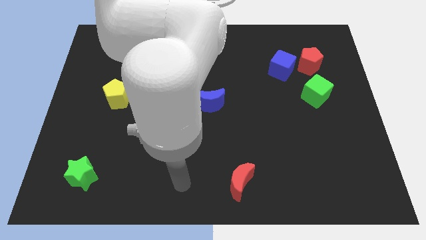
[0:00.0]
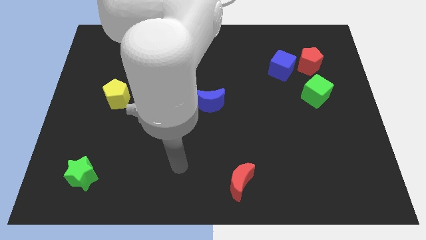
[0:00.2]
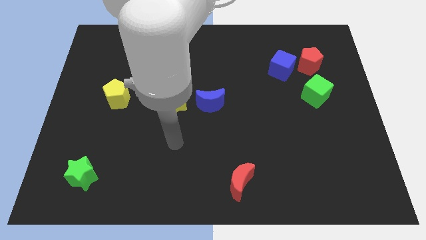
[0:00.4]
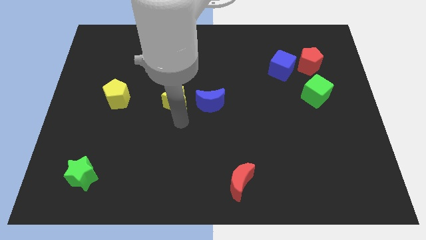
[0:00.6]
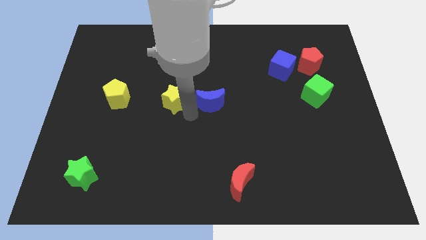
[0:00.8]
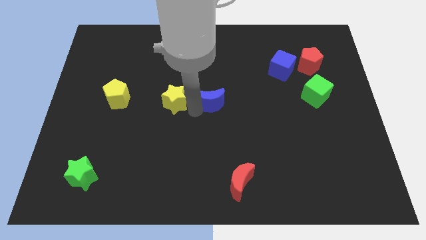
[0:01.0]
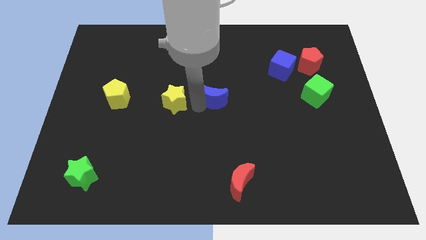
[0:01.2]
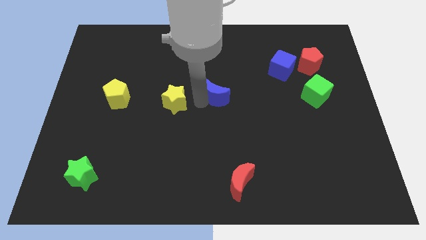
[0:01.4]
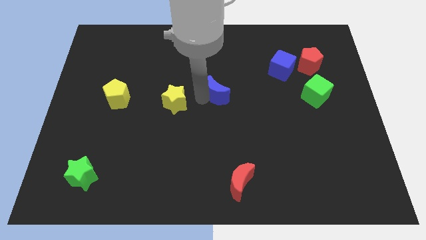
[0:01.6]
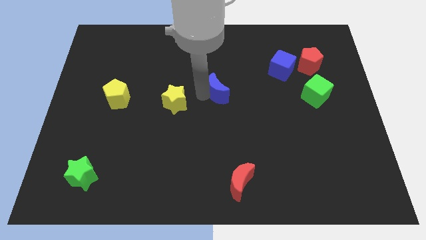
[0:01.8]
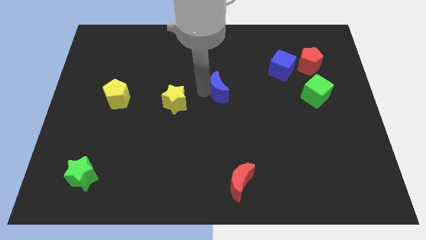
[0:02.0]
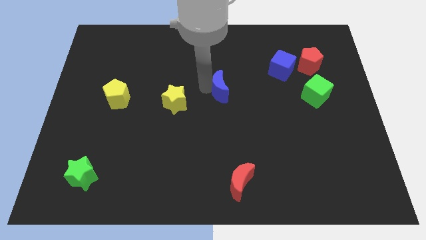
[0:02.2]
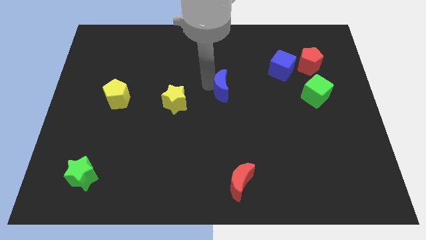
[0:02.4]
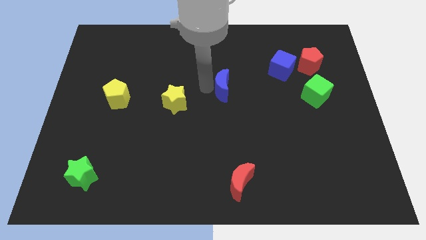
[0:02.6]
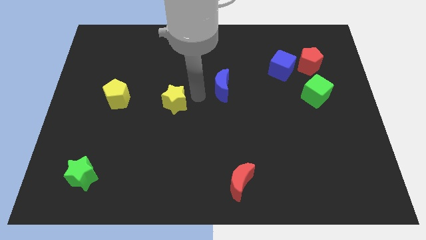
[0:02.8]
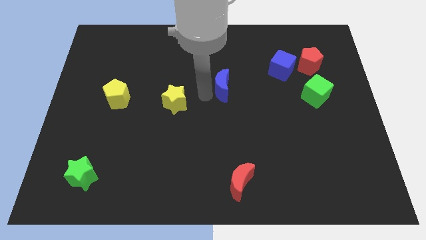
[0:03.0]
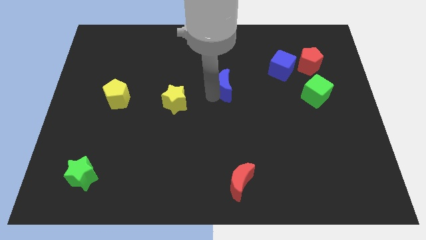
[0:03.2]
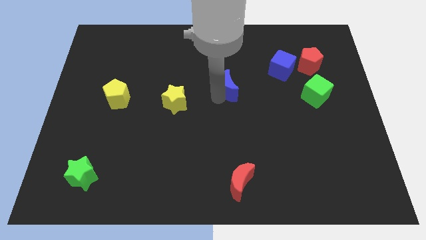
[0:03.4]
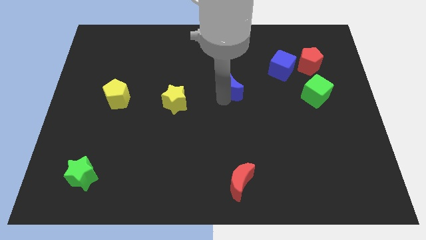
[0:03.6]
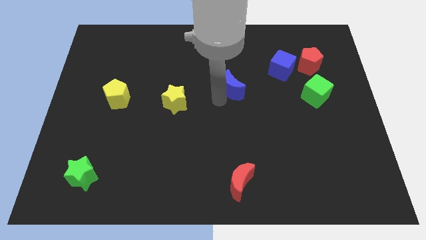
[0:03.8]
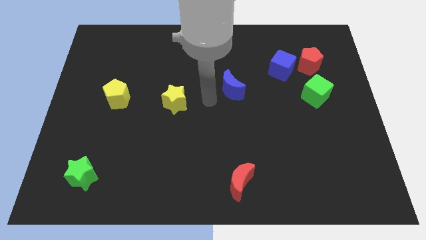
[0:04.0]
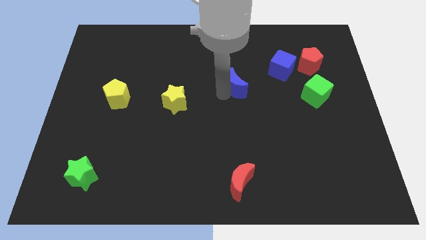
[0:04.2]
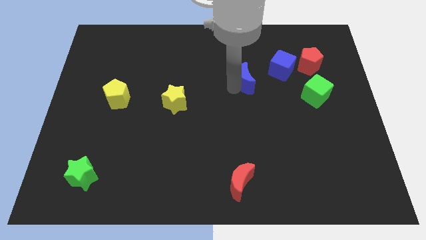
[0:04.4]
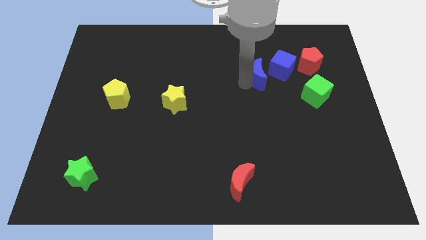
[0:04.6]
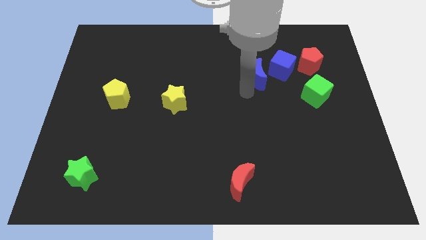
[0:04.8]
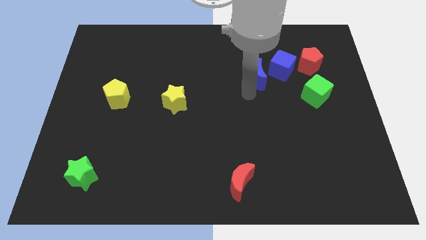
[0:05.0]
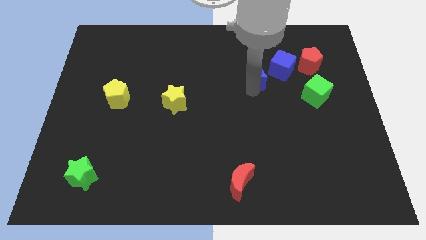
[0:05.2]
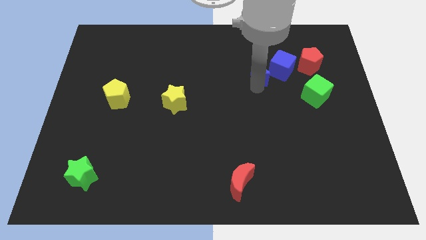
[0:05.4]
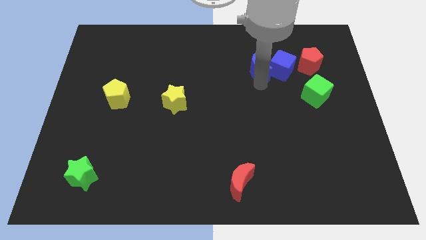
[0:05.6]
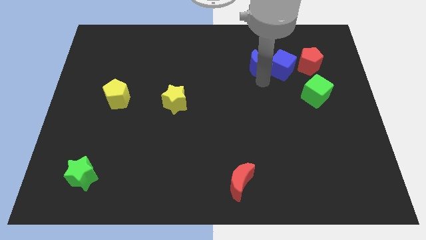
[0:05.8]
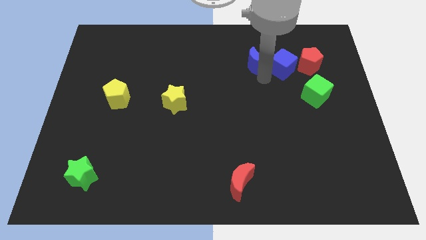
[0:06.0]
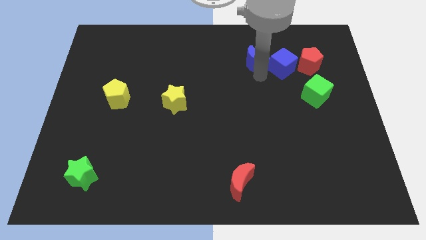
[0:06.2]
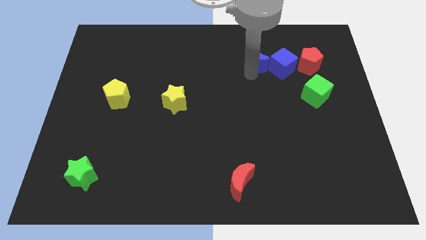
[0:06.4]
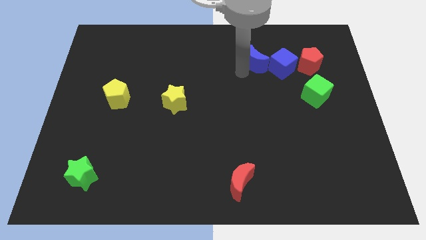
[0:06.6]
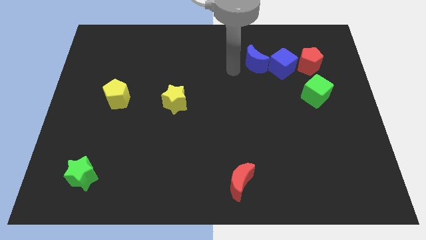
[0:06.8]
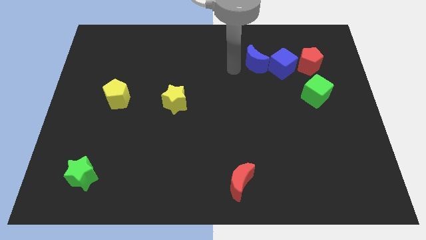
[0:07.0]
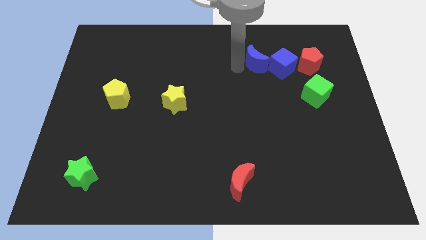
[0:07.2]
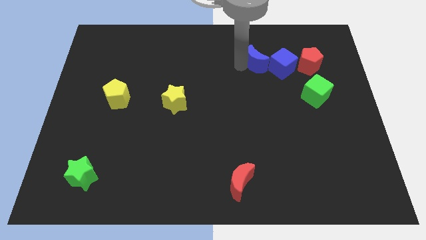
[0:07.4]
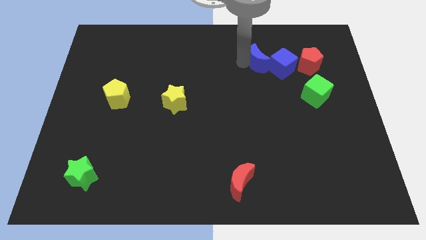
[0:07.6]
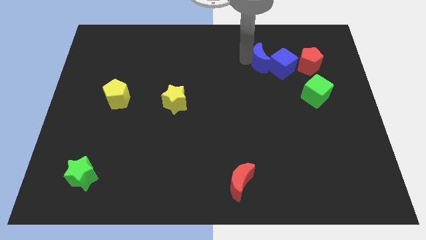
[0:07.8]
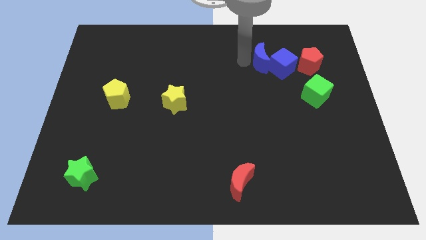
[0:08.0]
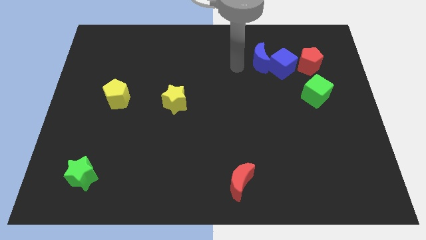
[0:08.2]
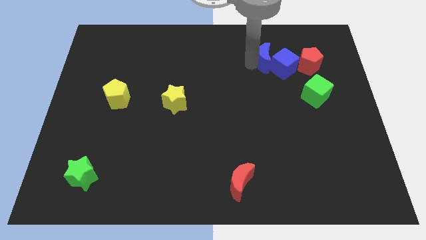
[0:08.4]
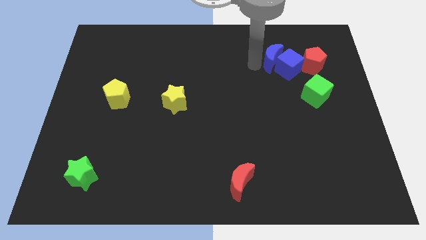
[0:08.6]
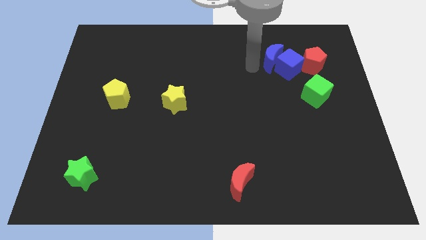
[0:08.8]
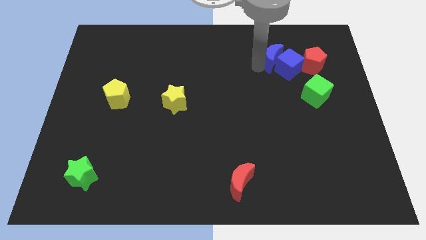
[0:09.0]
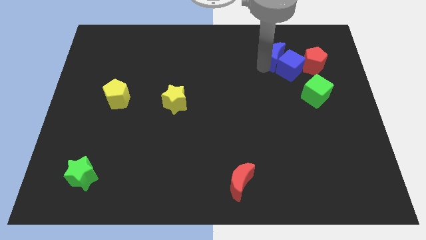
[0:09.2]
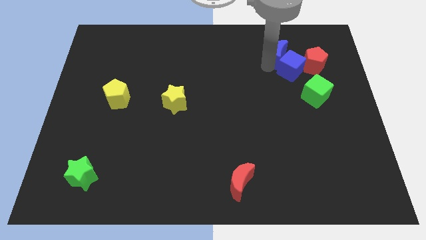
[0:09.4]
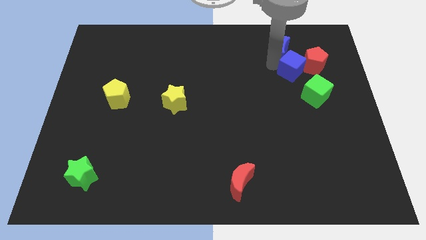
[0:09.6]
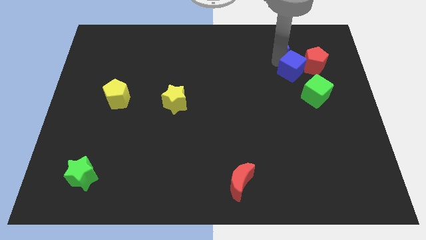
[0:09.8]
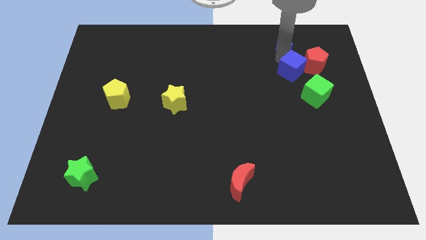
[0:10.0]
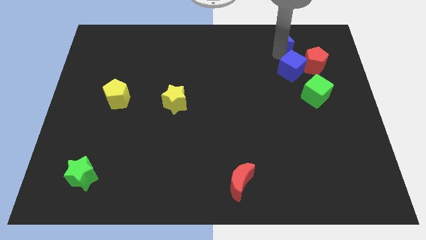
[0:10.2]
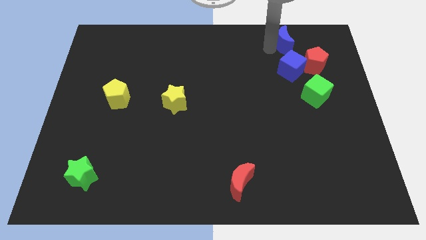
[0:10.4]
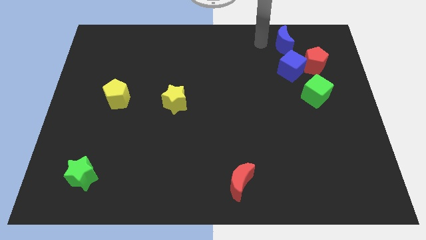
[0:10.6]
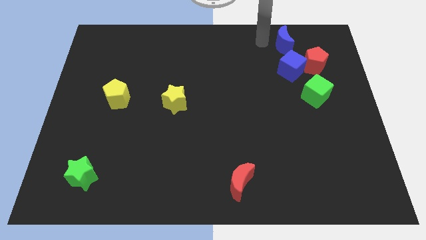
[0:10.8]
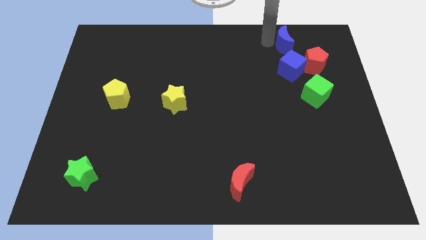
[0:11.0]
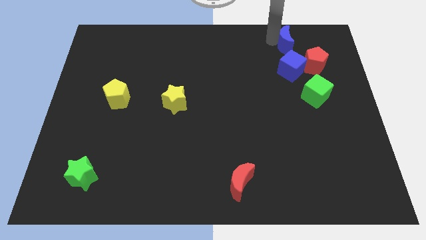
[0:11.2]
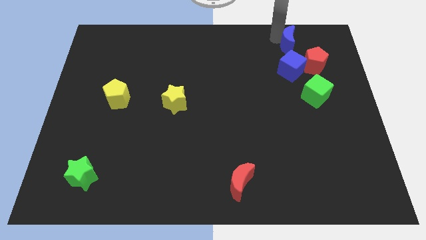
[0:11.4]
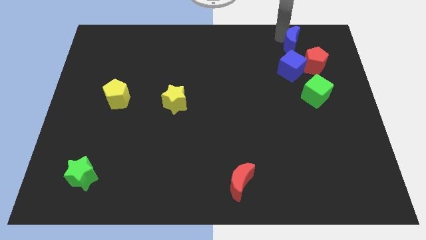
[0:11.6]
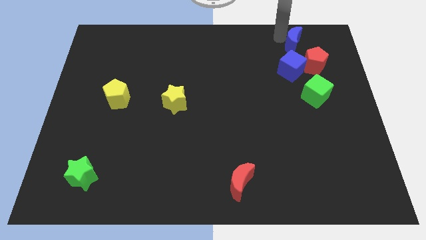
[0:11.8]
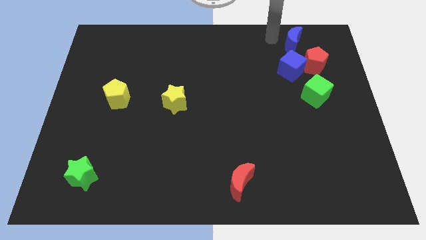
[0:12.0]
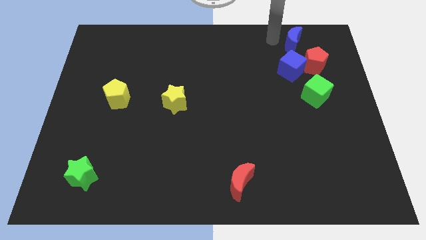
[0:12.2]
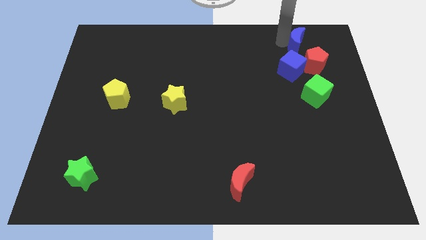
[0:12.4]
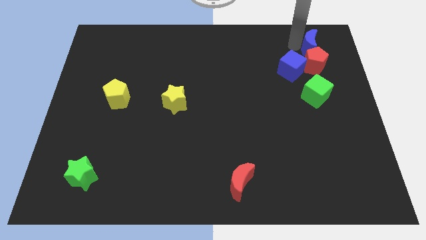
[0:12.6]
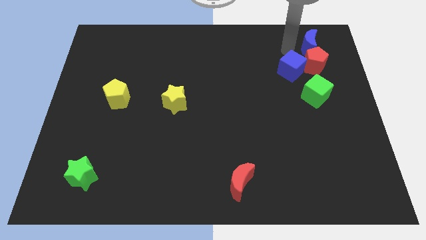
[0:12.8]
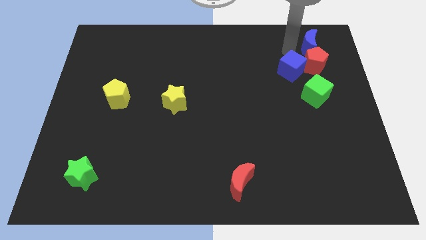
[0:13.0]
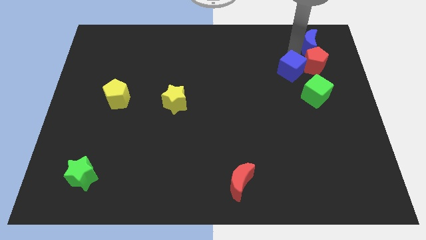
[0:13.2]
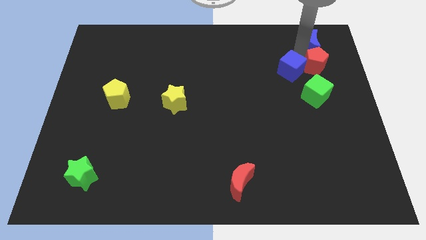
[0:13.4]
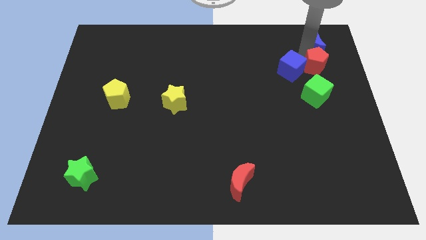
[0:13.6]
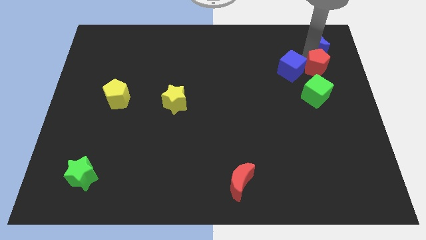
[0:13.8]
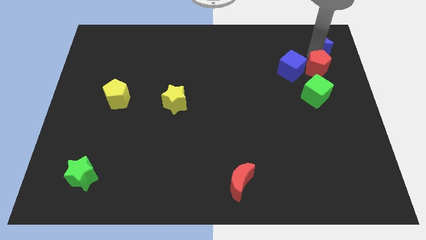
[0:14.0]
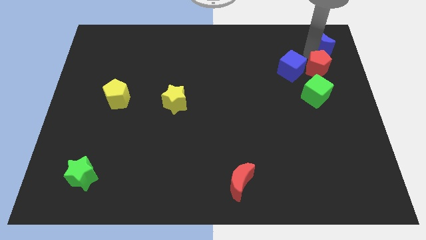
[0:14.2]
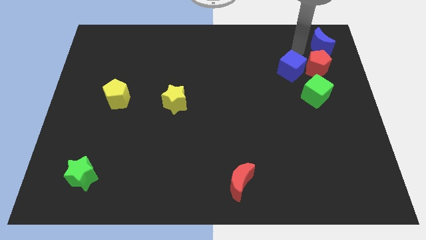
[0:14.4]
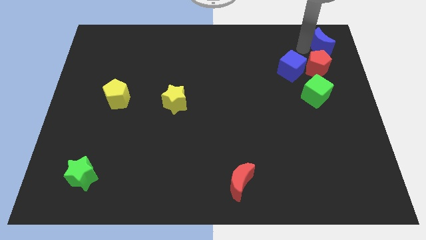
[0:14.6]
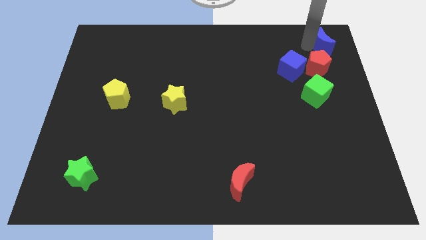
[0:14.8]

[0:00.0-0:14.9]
move the blue moon to the upper right corner
